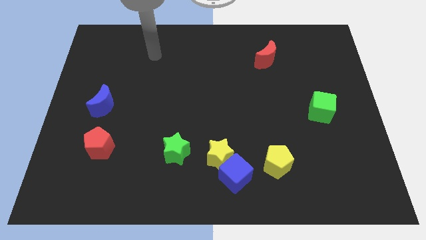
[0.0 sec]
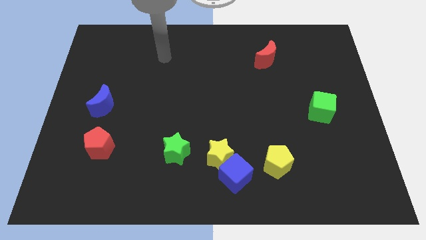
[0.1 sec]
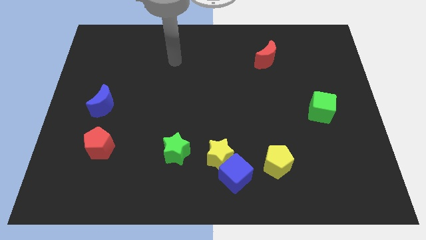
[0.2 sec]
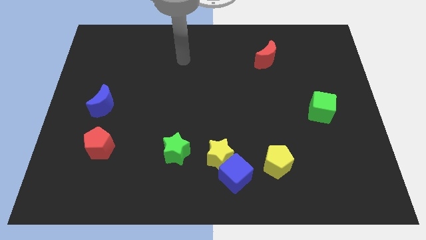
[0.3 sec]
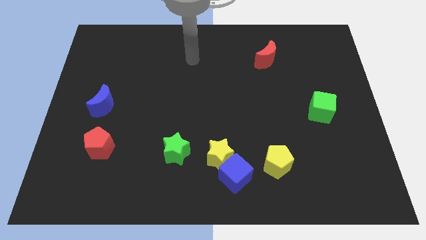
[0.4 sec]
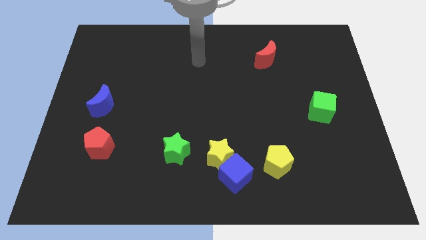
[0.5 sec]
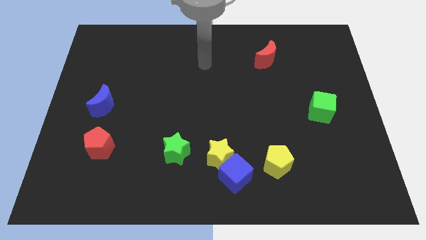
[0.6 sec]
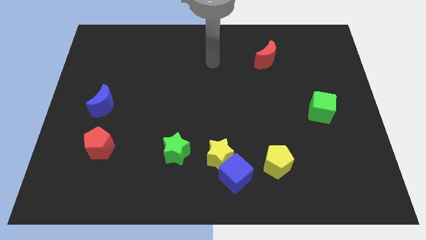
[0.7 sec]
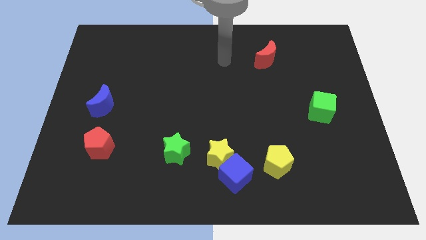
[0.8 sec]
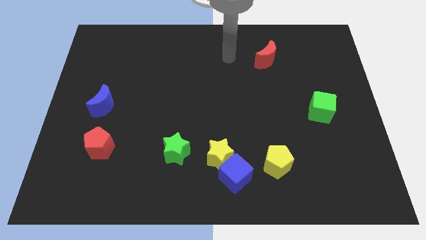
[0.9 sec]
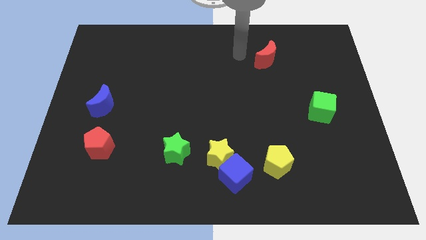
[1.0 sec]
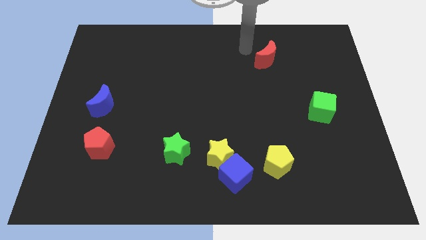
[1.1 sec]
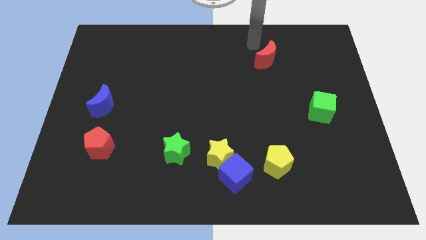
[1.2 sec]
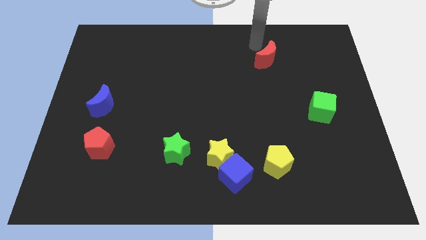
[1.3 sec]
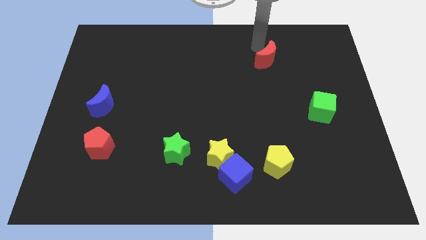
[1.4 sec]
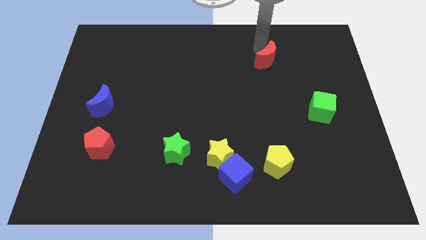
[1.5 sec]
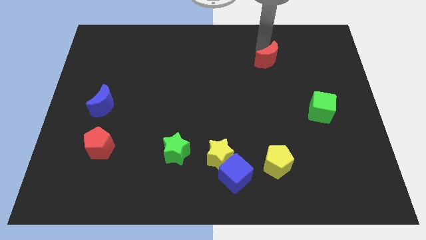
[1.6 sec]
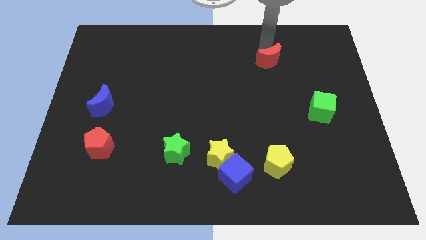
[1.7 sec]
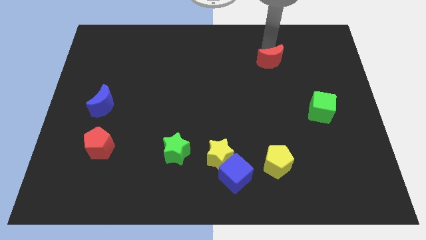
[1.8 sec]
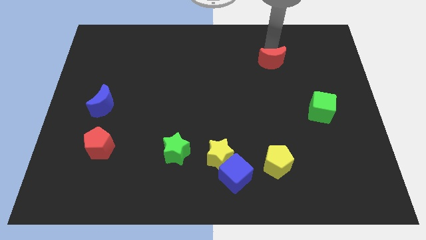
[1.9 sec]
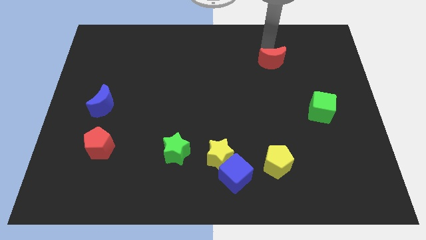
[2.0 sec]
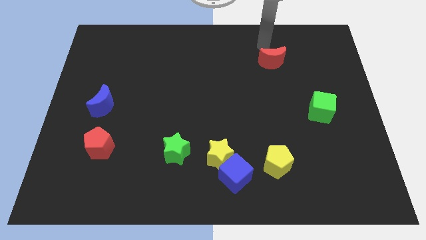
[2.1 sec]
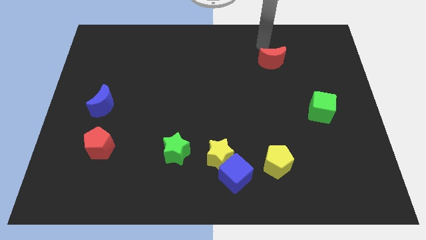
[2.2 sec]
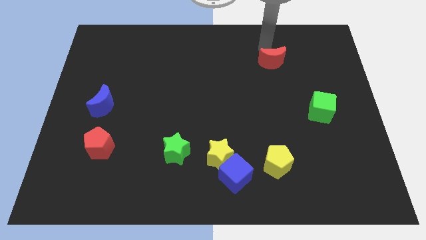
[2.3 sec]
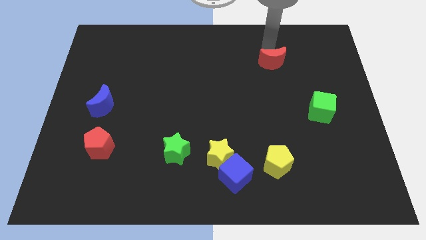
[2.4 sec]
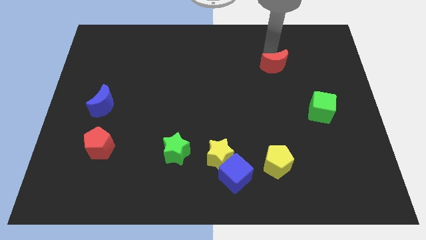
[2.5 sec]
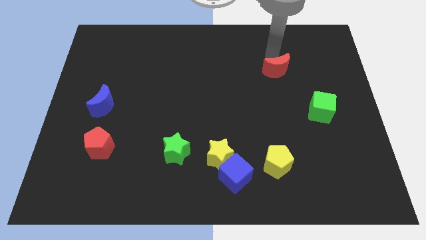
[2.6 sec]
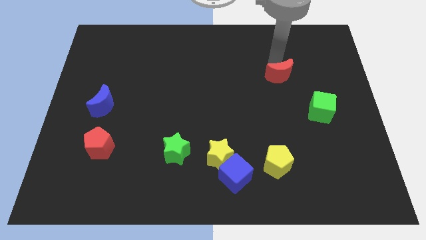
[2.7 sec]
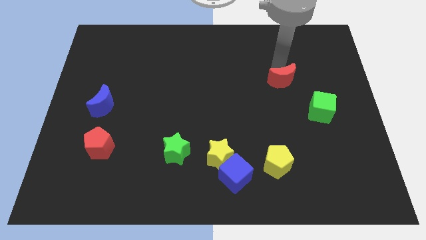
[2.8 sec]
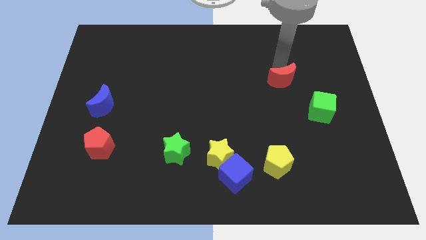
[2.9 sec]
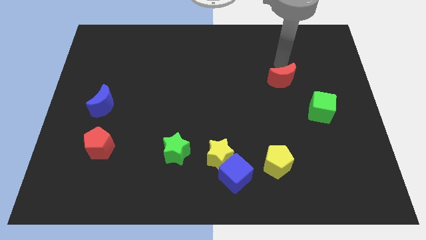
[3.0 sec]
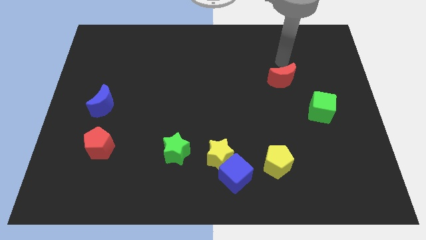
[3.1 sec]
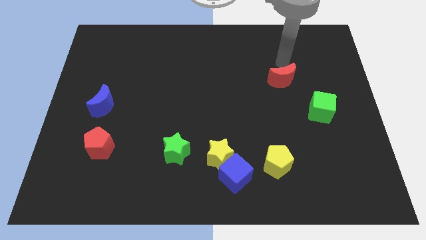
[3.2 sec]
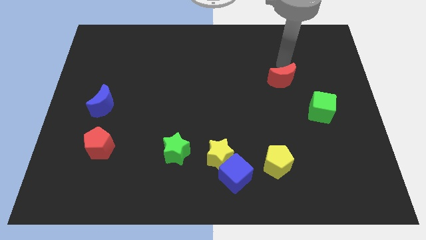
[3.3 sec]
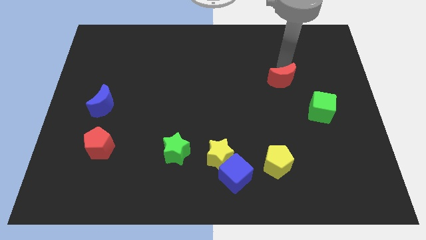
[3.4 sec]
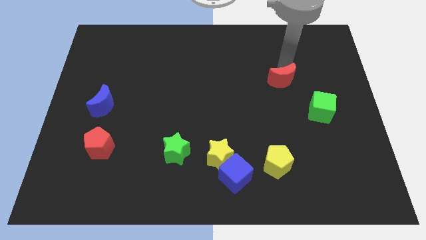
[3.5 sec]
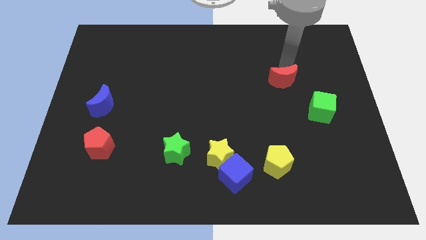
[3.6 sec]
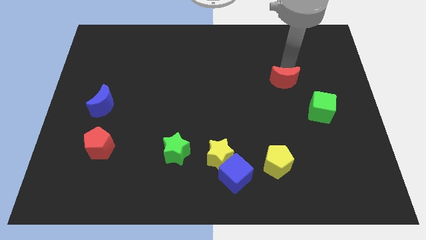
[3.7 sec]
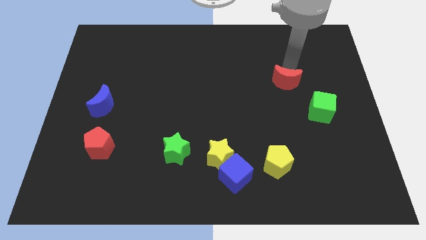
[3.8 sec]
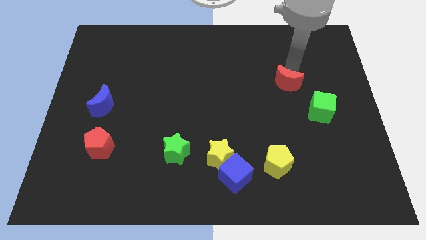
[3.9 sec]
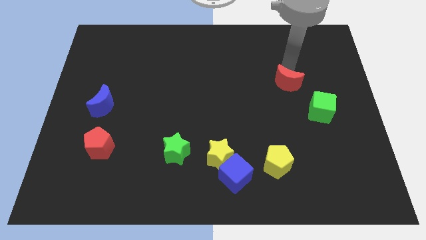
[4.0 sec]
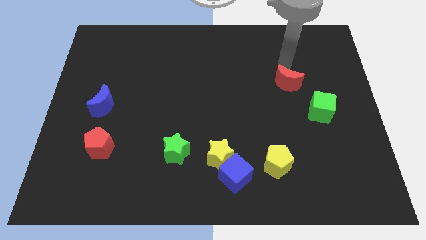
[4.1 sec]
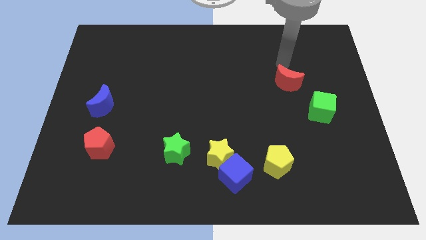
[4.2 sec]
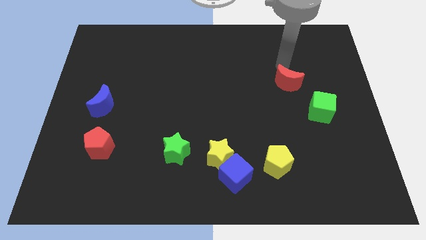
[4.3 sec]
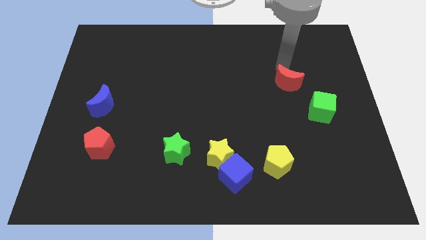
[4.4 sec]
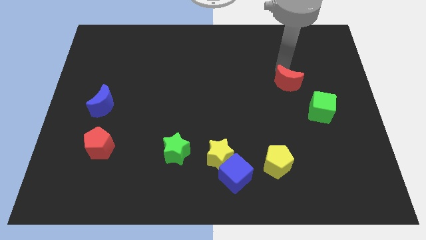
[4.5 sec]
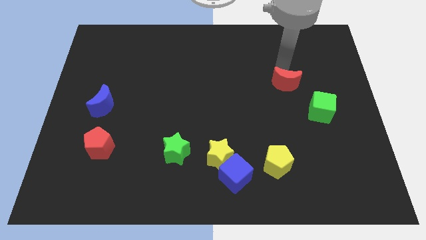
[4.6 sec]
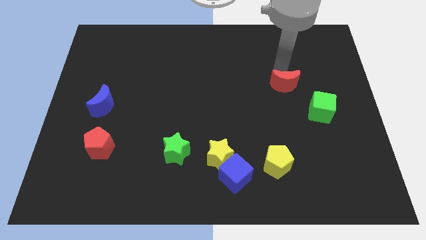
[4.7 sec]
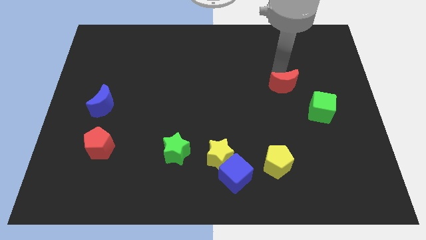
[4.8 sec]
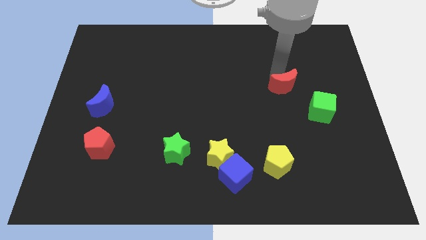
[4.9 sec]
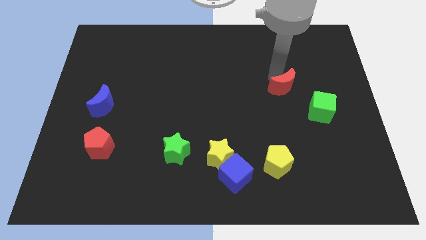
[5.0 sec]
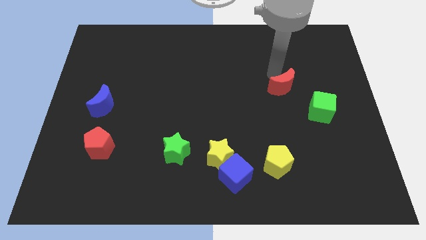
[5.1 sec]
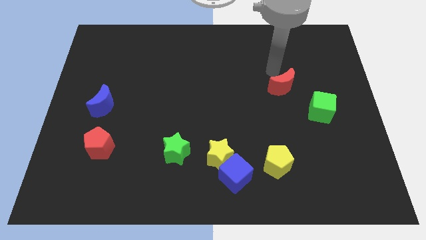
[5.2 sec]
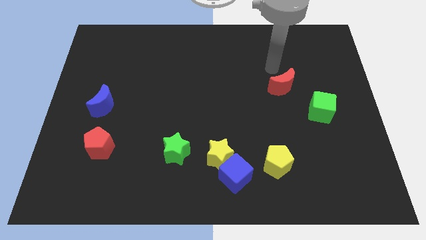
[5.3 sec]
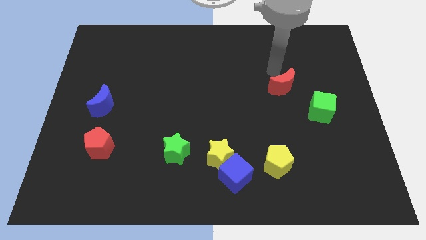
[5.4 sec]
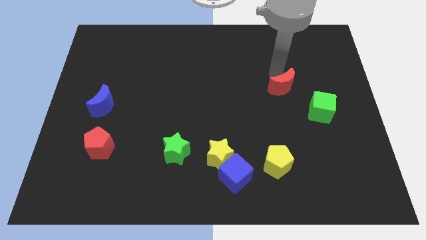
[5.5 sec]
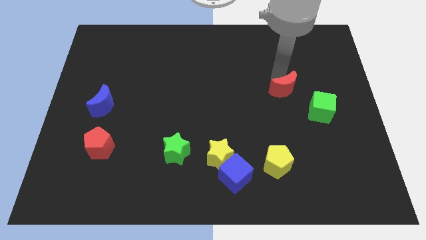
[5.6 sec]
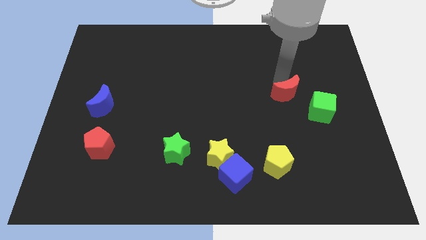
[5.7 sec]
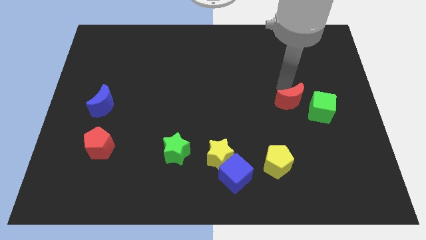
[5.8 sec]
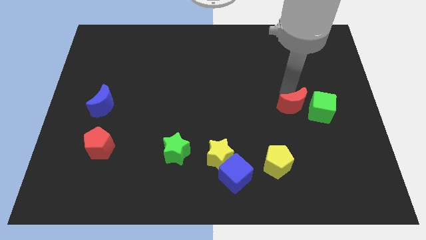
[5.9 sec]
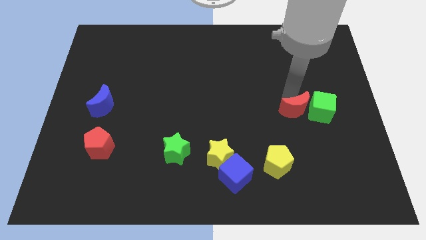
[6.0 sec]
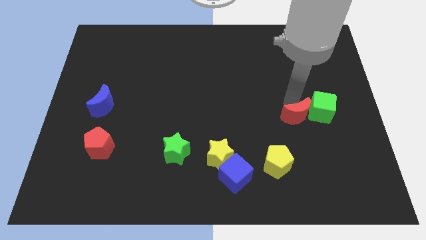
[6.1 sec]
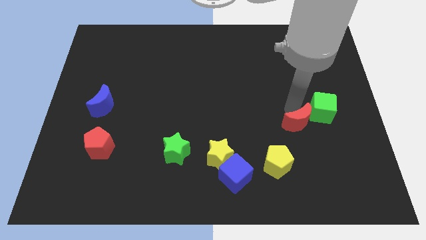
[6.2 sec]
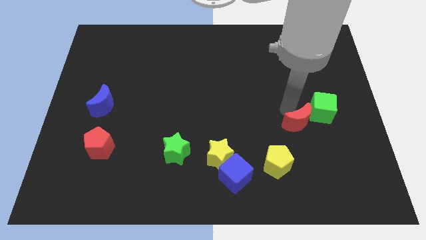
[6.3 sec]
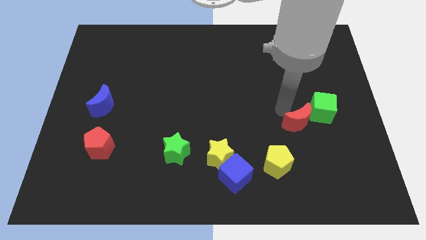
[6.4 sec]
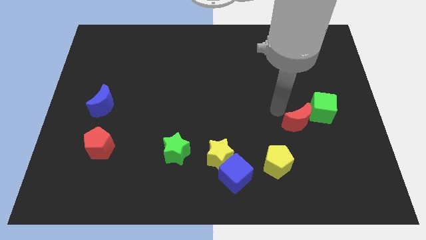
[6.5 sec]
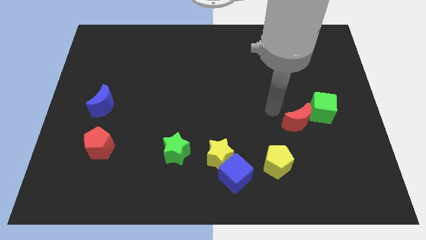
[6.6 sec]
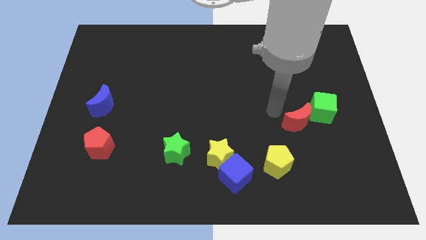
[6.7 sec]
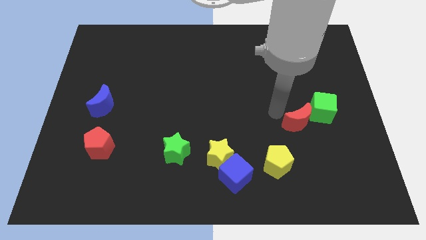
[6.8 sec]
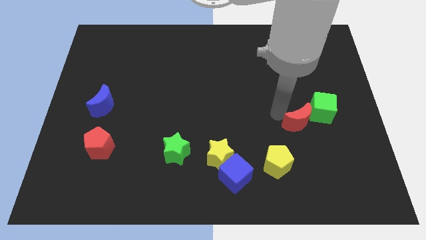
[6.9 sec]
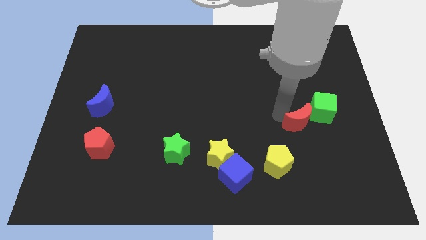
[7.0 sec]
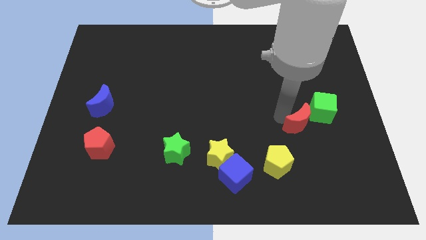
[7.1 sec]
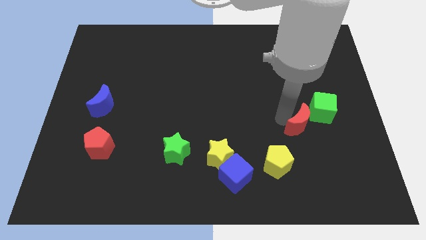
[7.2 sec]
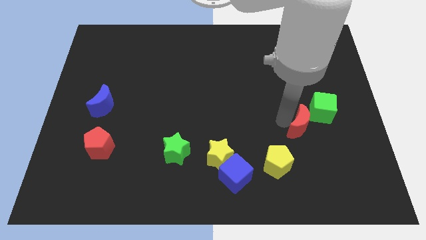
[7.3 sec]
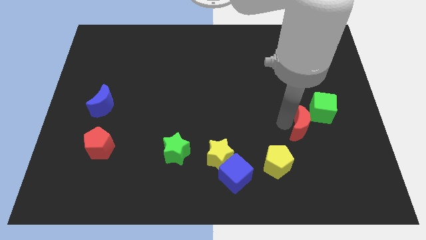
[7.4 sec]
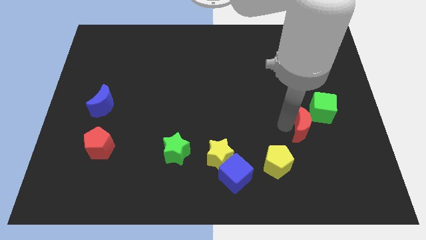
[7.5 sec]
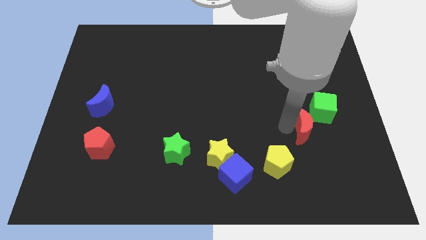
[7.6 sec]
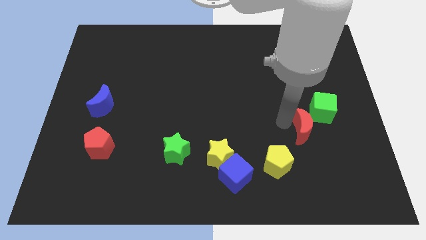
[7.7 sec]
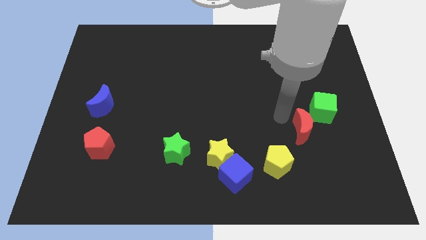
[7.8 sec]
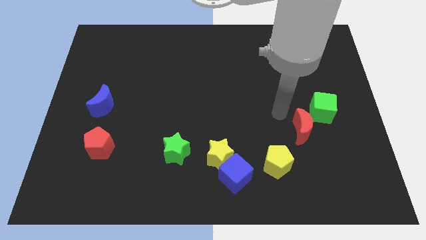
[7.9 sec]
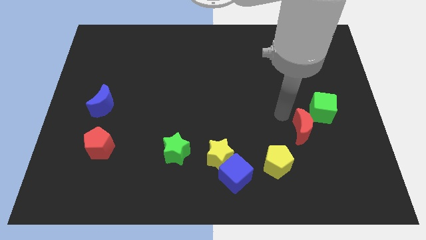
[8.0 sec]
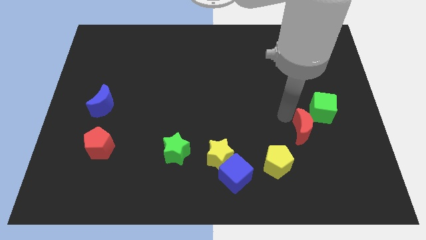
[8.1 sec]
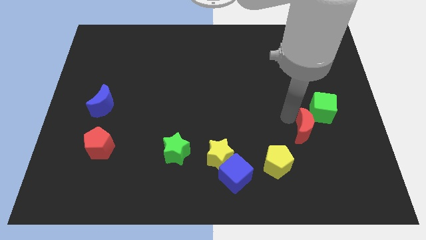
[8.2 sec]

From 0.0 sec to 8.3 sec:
move the red moon below the green cube
